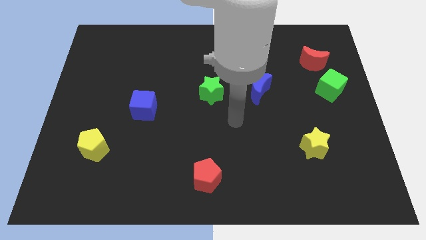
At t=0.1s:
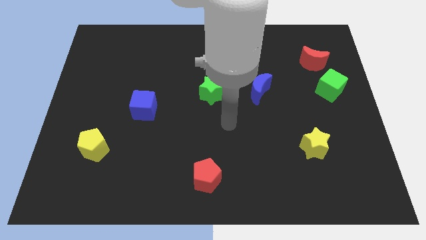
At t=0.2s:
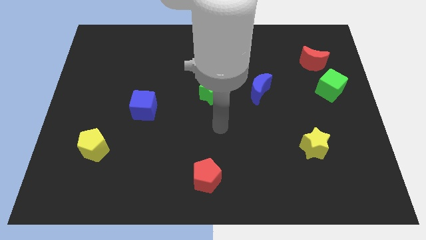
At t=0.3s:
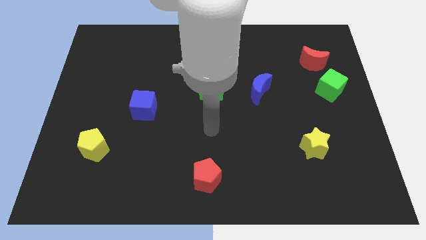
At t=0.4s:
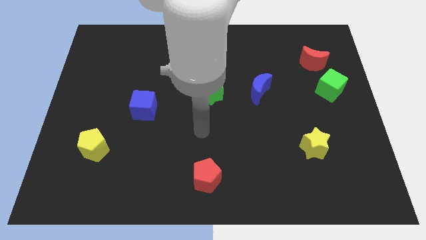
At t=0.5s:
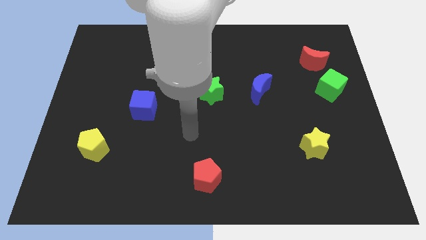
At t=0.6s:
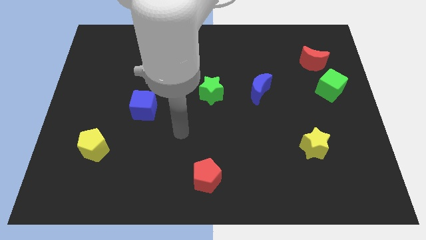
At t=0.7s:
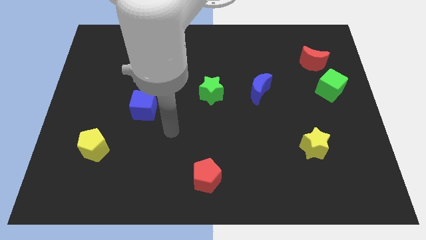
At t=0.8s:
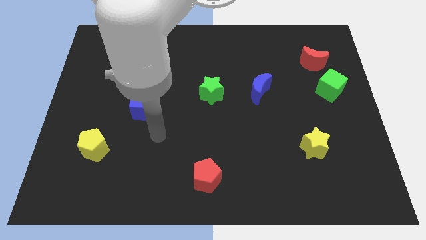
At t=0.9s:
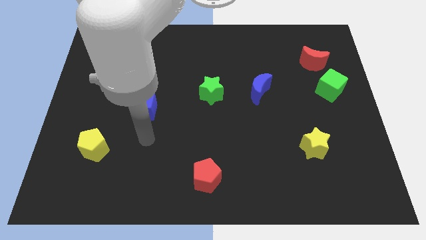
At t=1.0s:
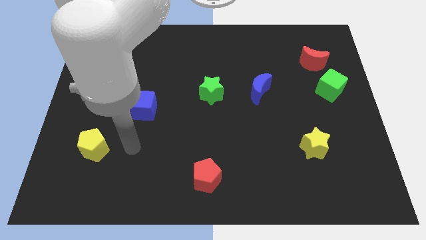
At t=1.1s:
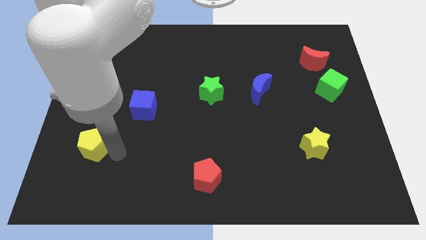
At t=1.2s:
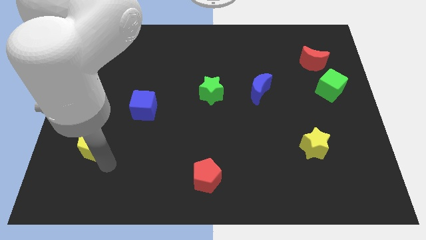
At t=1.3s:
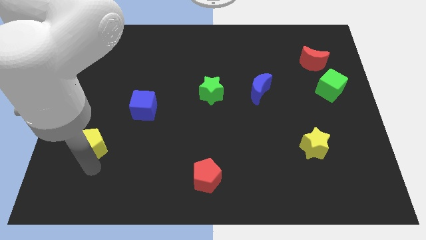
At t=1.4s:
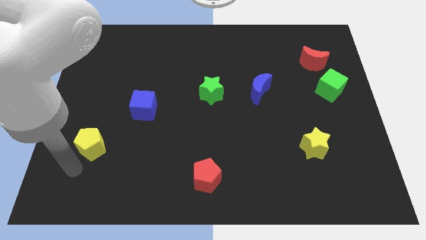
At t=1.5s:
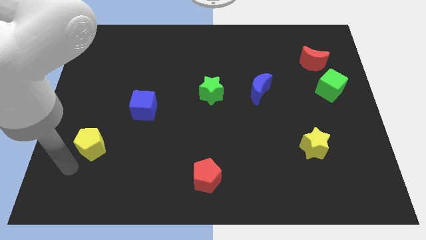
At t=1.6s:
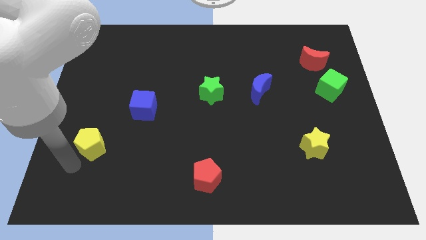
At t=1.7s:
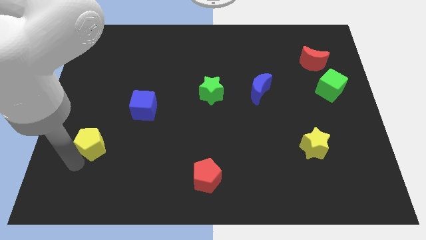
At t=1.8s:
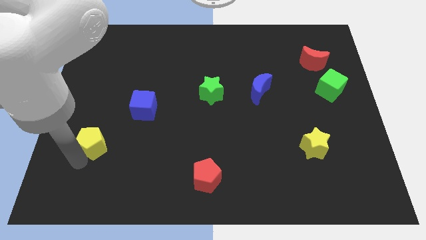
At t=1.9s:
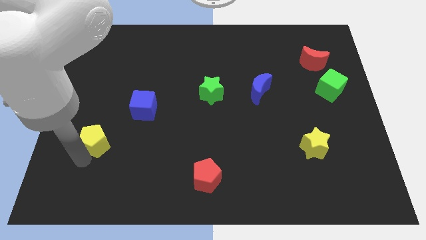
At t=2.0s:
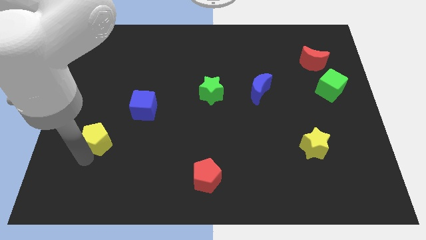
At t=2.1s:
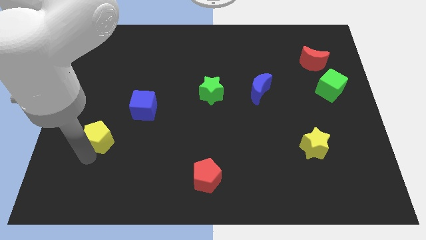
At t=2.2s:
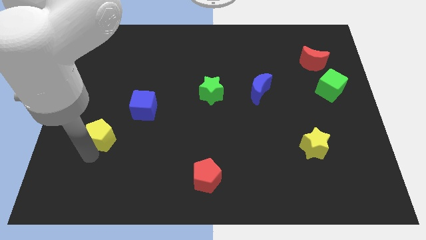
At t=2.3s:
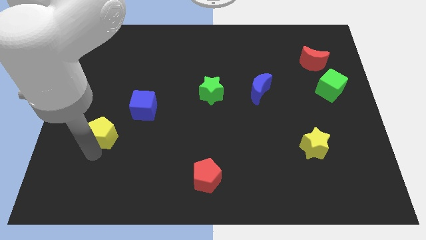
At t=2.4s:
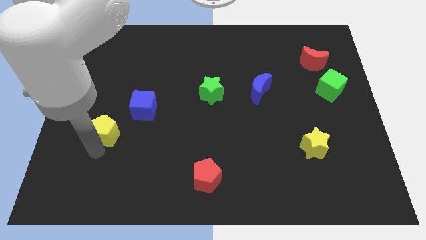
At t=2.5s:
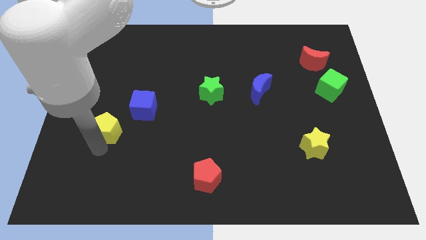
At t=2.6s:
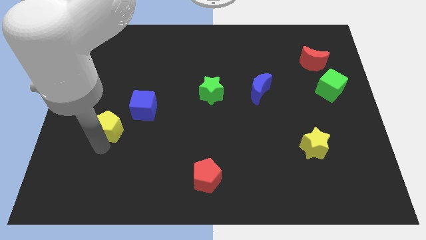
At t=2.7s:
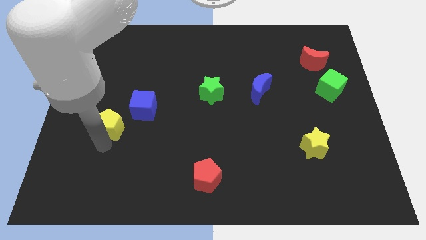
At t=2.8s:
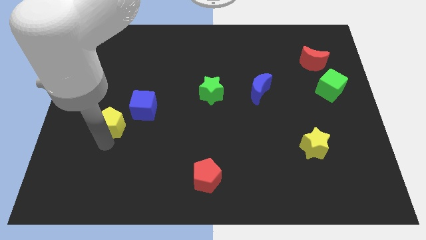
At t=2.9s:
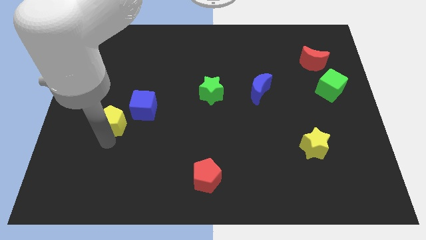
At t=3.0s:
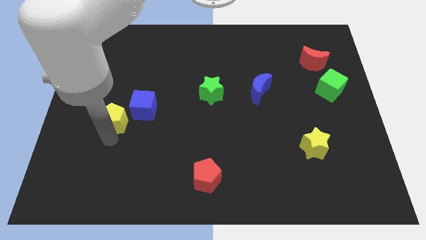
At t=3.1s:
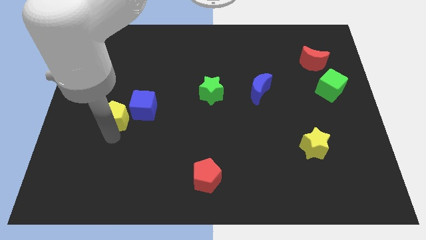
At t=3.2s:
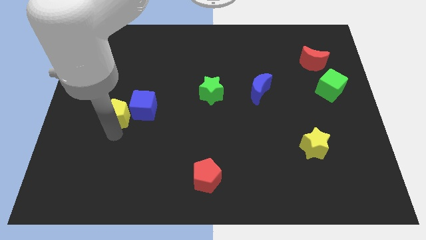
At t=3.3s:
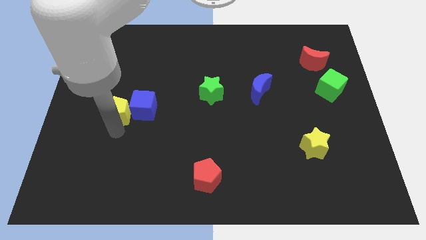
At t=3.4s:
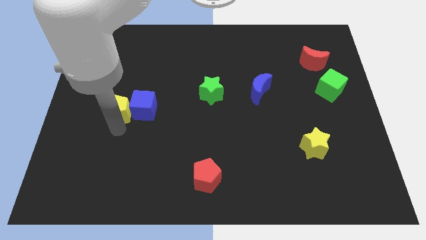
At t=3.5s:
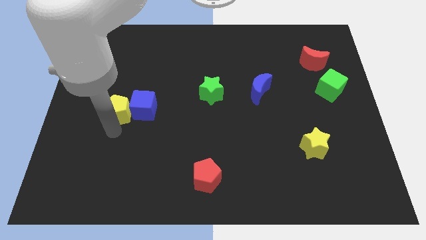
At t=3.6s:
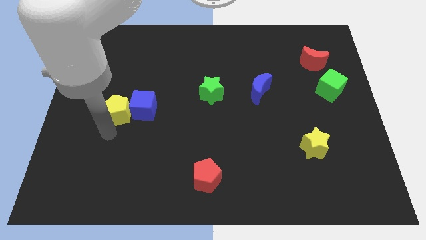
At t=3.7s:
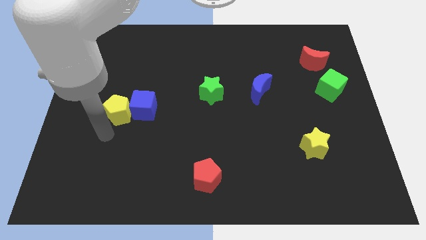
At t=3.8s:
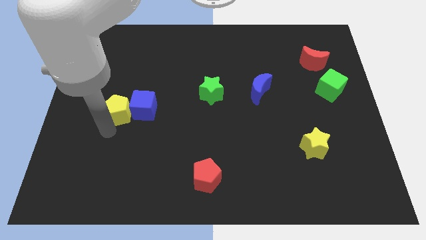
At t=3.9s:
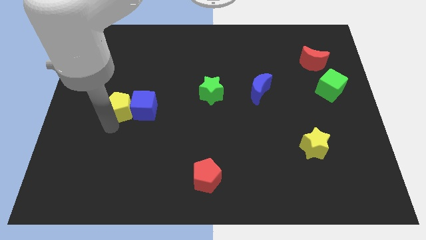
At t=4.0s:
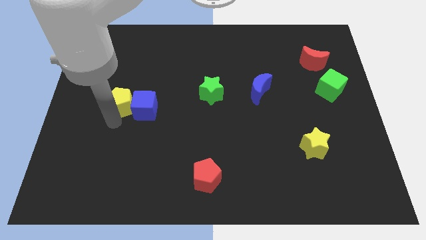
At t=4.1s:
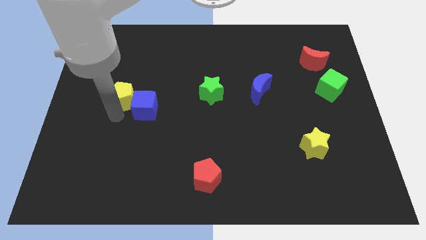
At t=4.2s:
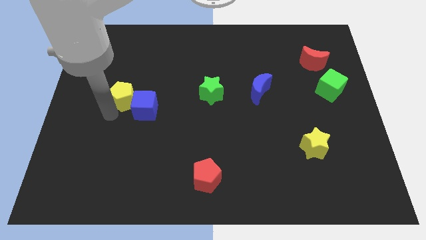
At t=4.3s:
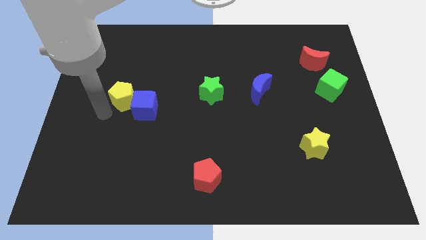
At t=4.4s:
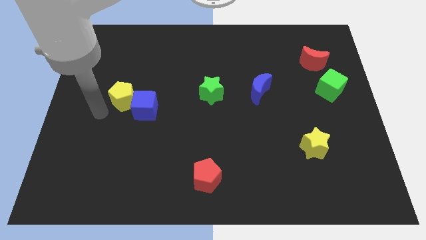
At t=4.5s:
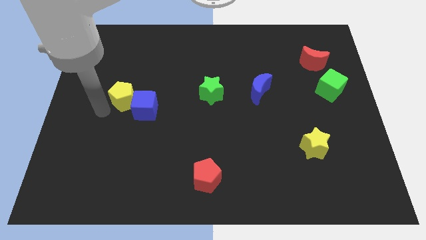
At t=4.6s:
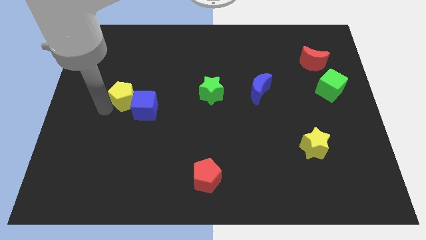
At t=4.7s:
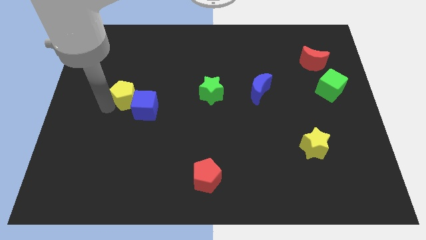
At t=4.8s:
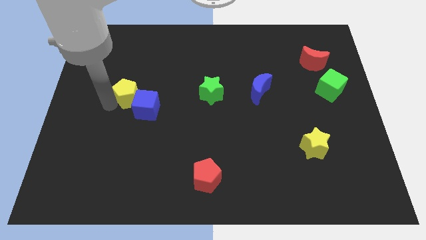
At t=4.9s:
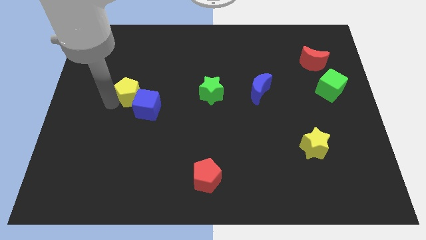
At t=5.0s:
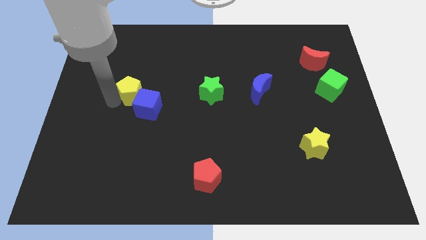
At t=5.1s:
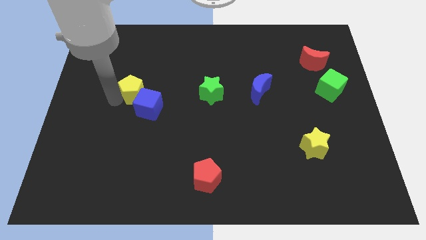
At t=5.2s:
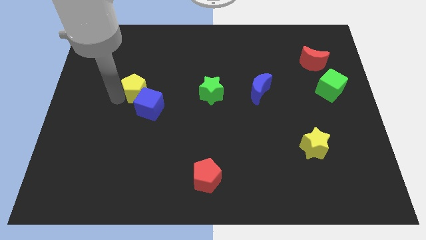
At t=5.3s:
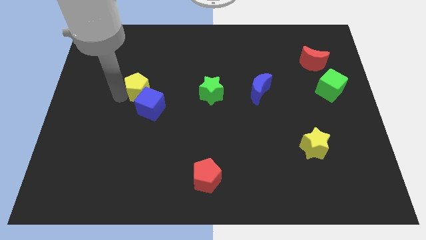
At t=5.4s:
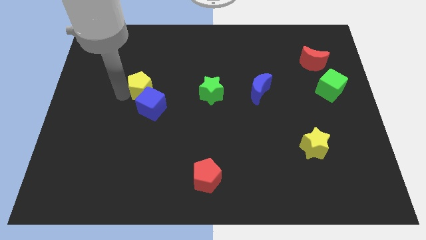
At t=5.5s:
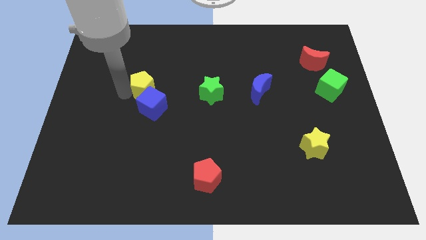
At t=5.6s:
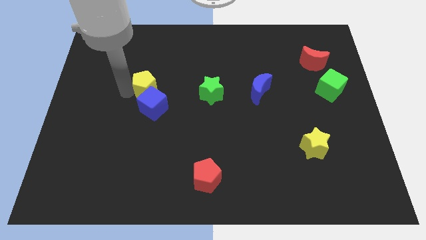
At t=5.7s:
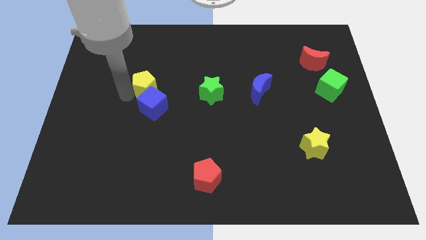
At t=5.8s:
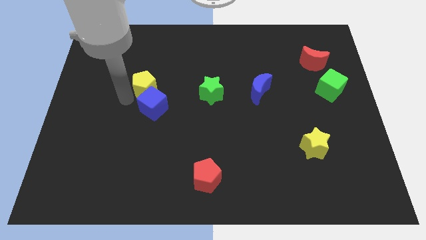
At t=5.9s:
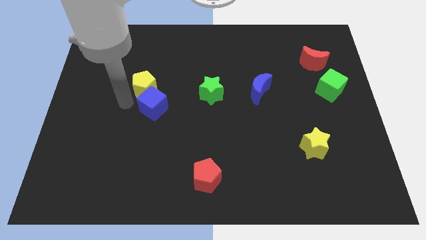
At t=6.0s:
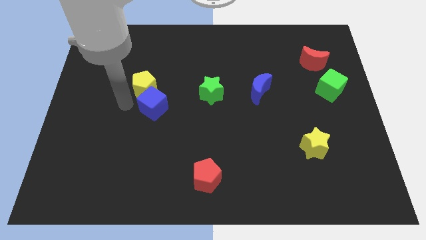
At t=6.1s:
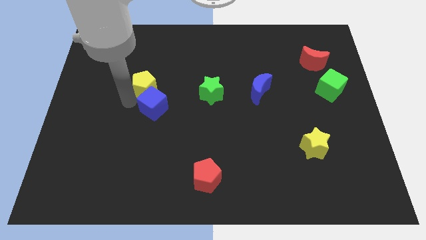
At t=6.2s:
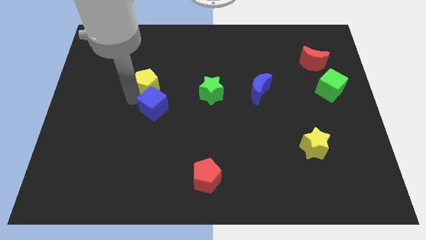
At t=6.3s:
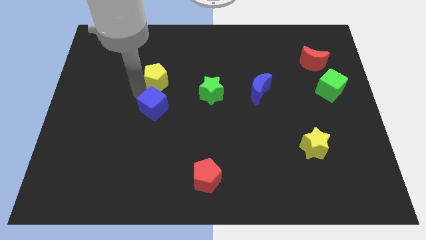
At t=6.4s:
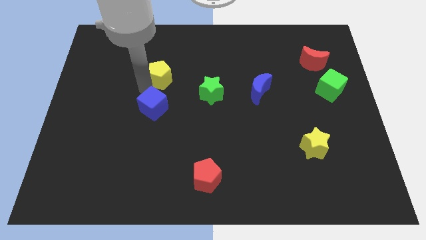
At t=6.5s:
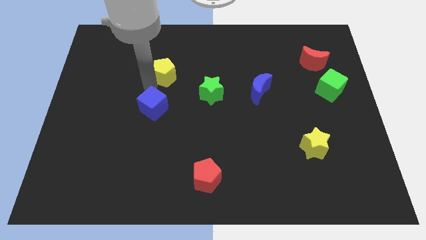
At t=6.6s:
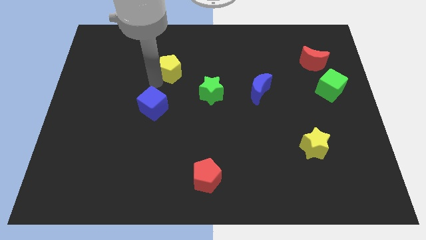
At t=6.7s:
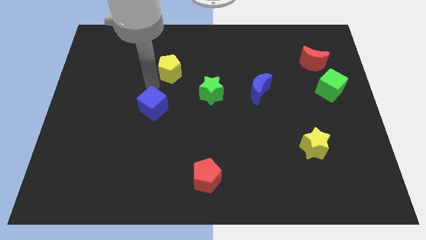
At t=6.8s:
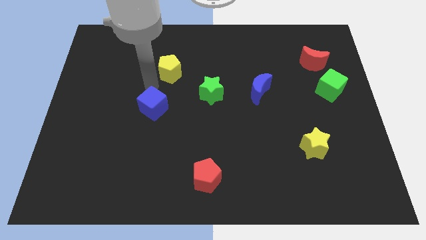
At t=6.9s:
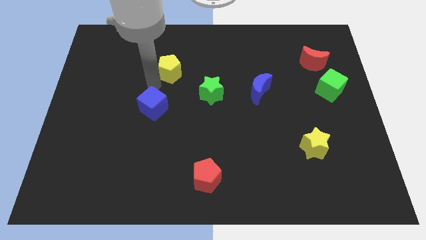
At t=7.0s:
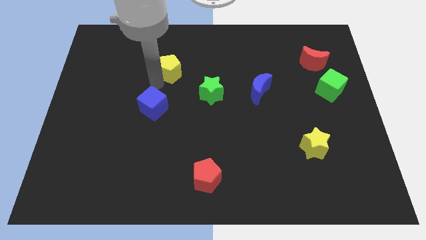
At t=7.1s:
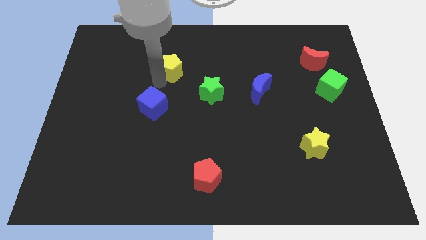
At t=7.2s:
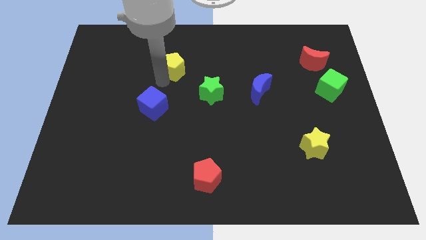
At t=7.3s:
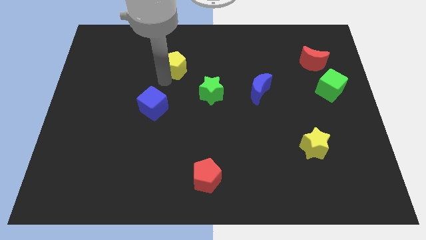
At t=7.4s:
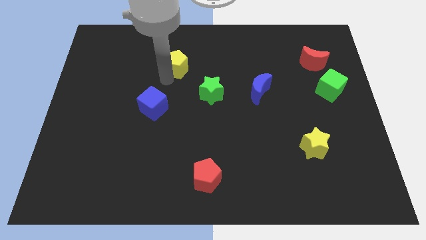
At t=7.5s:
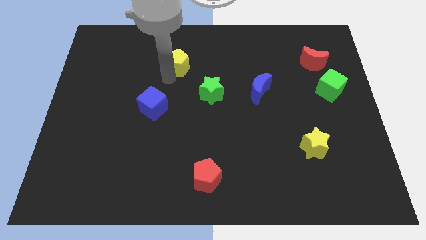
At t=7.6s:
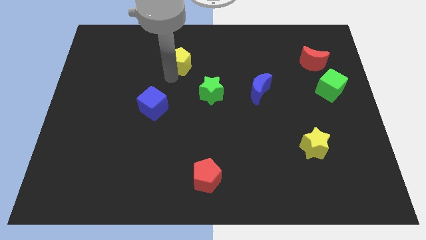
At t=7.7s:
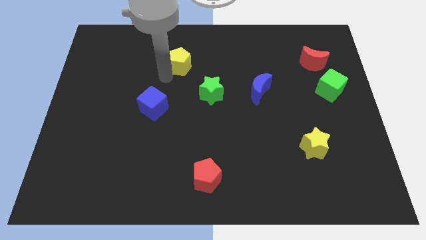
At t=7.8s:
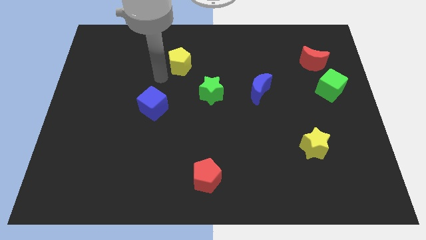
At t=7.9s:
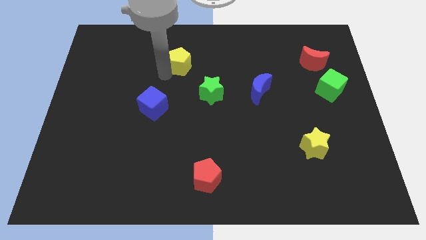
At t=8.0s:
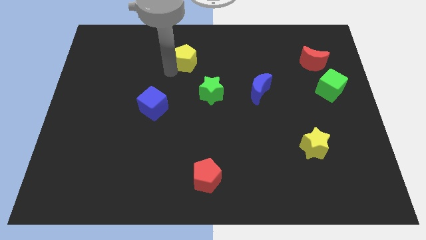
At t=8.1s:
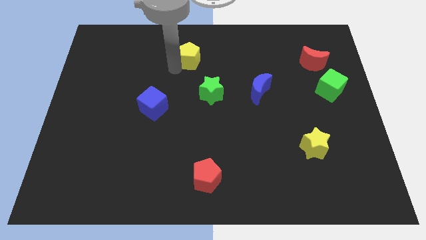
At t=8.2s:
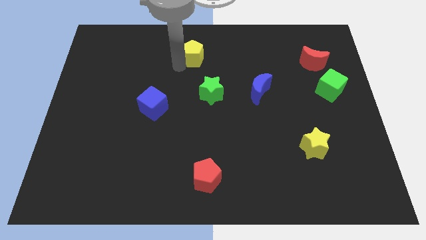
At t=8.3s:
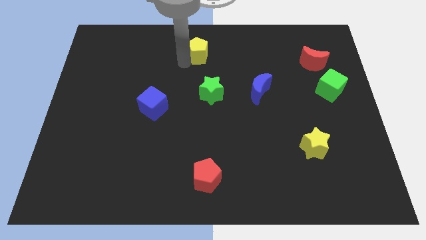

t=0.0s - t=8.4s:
put the yellow pentagon to the top
